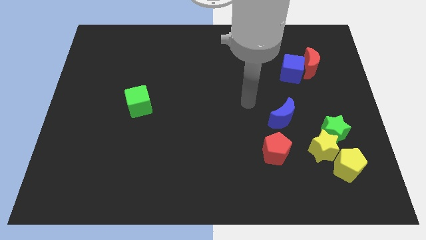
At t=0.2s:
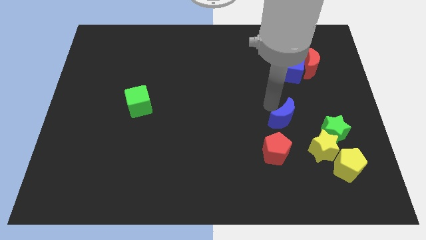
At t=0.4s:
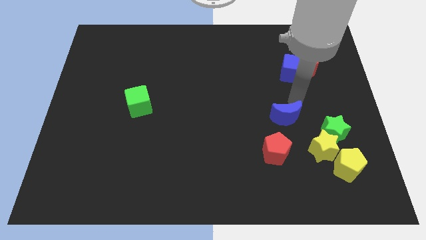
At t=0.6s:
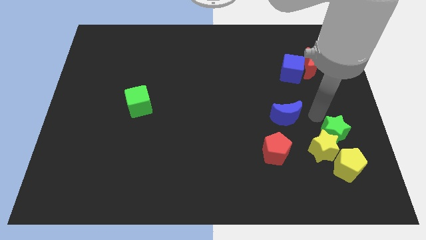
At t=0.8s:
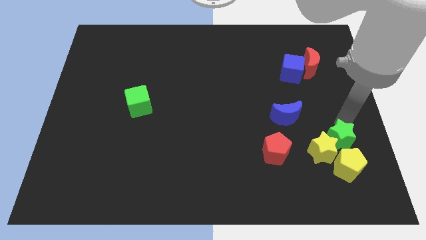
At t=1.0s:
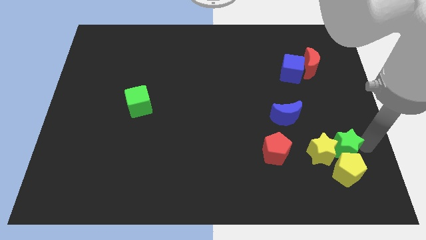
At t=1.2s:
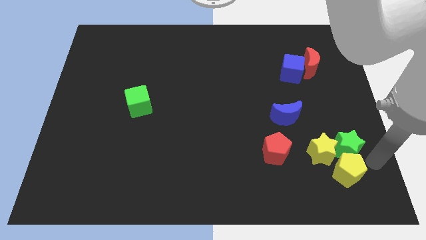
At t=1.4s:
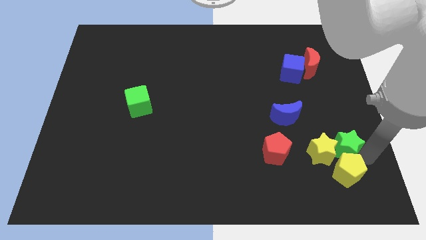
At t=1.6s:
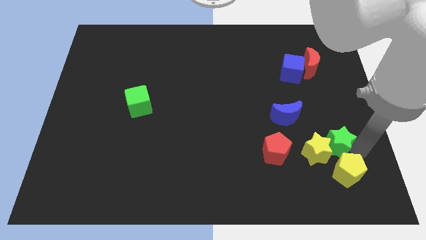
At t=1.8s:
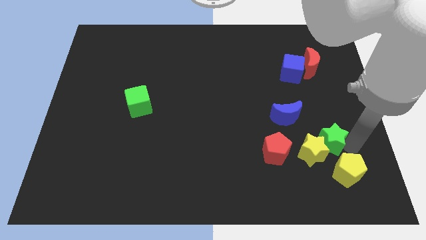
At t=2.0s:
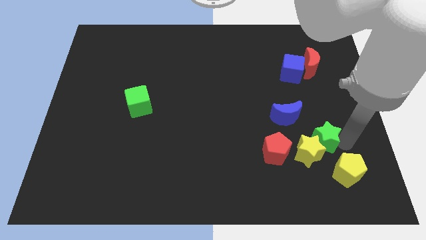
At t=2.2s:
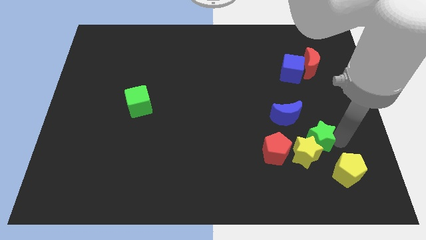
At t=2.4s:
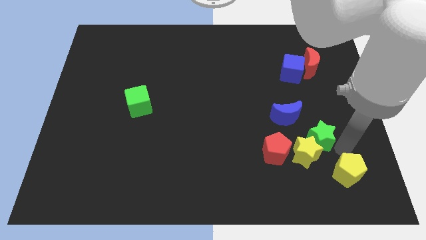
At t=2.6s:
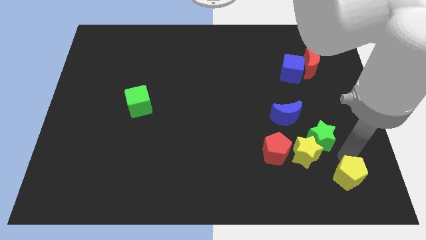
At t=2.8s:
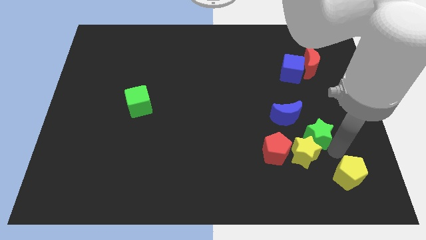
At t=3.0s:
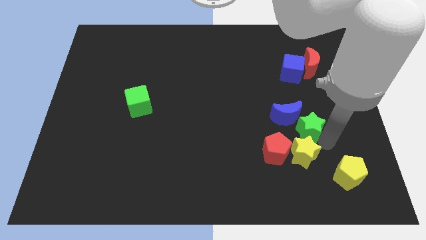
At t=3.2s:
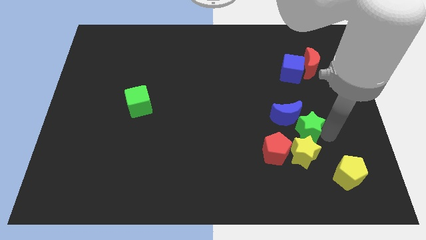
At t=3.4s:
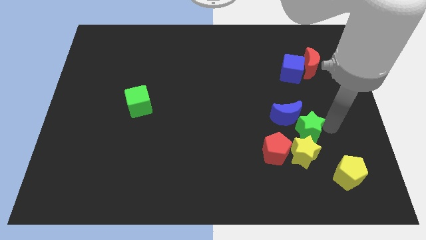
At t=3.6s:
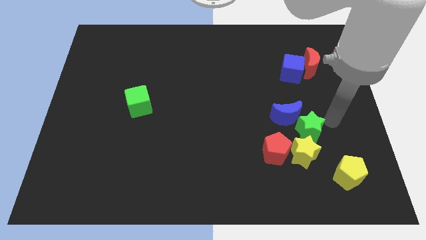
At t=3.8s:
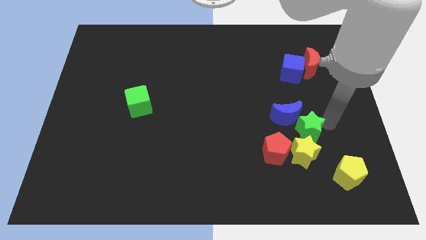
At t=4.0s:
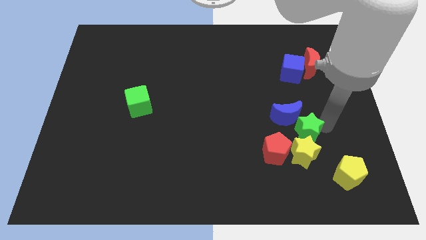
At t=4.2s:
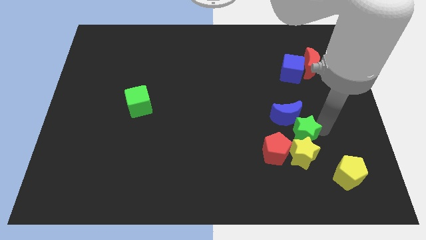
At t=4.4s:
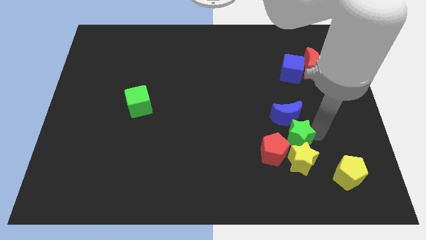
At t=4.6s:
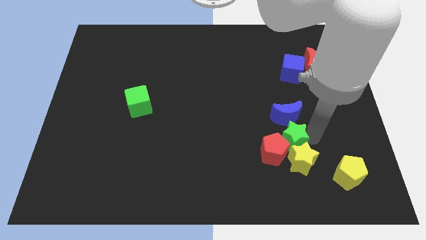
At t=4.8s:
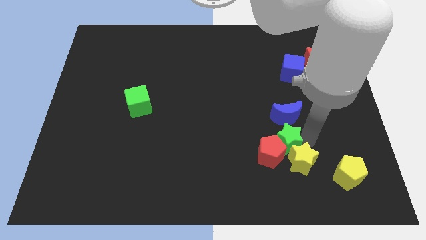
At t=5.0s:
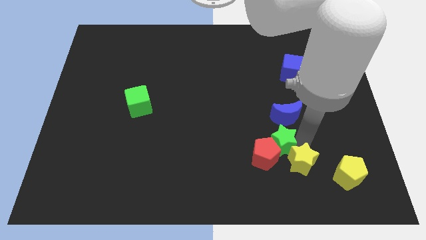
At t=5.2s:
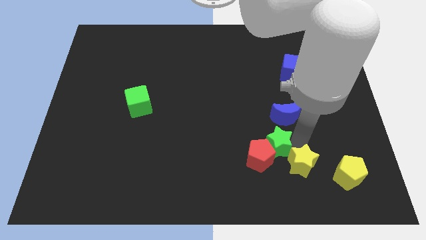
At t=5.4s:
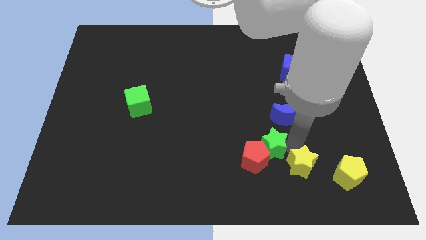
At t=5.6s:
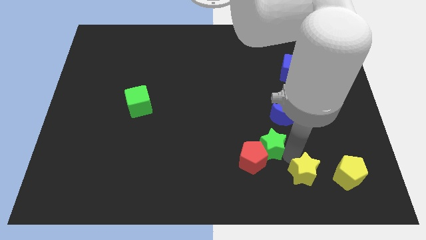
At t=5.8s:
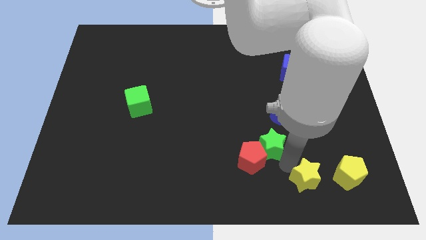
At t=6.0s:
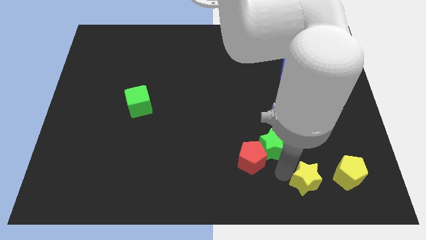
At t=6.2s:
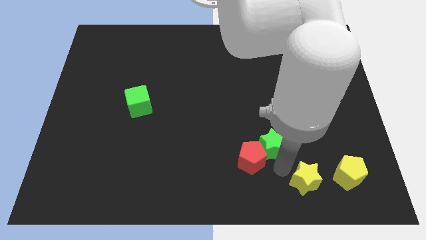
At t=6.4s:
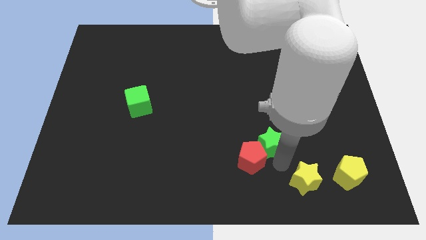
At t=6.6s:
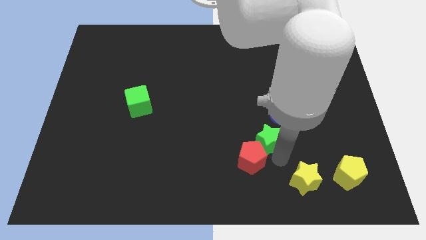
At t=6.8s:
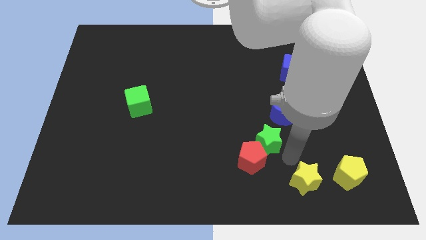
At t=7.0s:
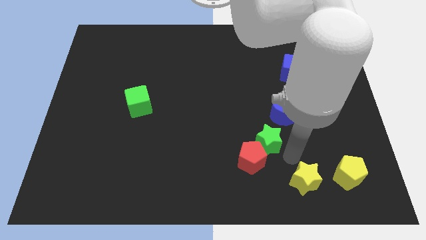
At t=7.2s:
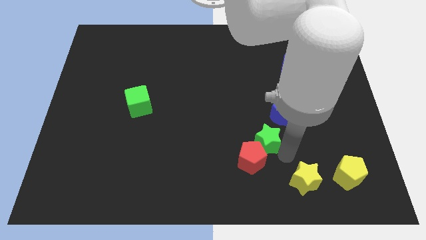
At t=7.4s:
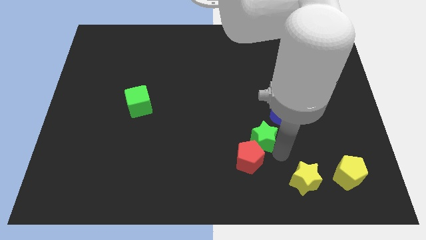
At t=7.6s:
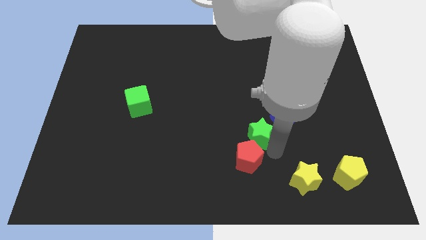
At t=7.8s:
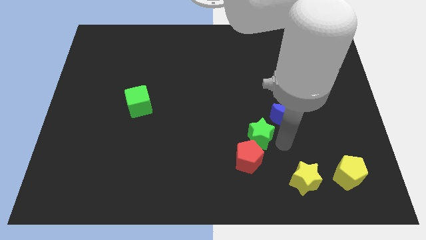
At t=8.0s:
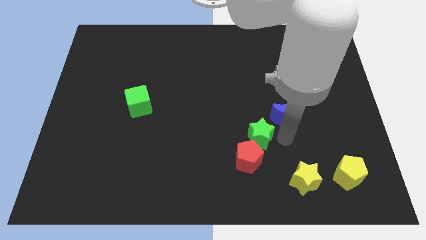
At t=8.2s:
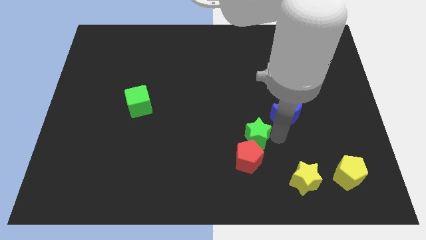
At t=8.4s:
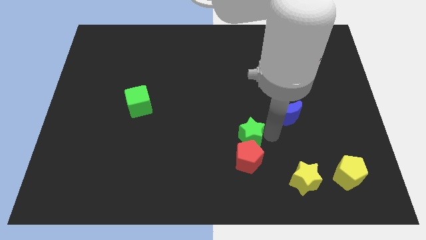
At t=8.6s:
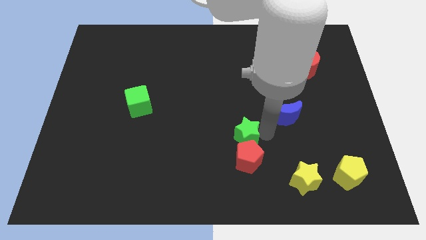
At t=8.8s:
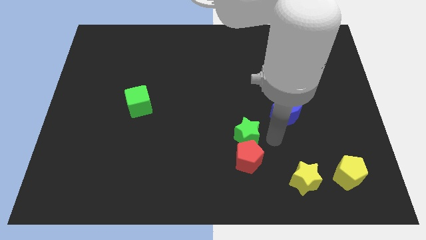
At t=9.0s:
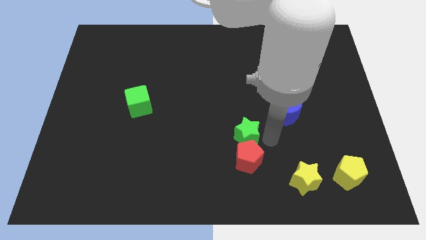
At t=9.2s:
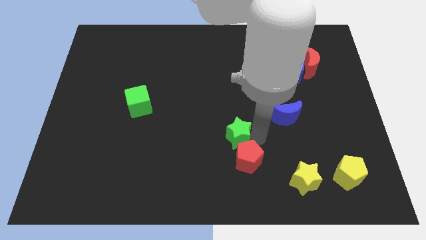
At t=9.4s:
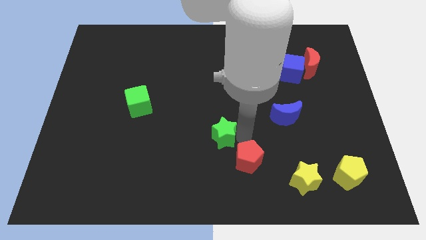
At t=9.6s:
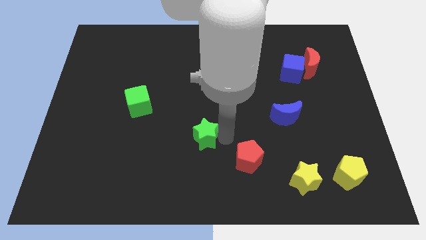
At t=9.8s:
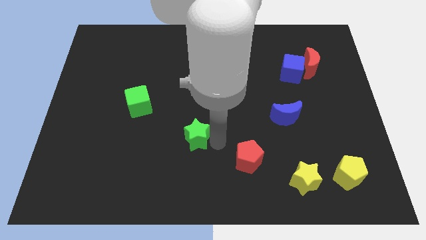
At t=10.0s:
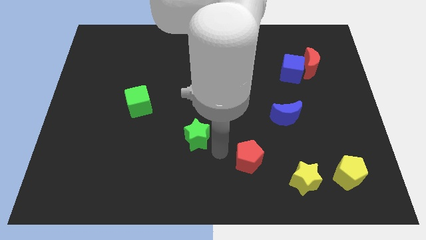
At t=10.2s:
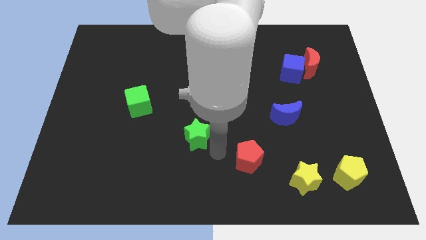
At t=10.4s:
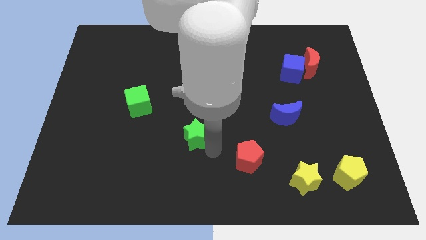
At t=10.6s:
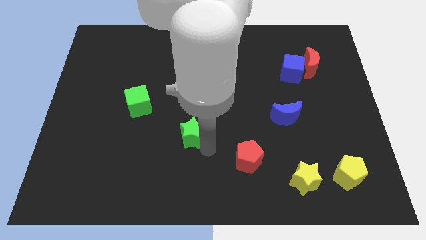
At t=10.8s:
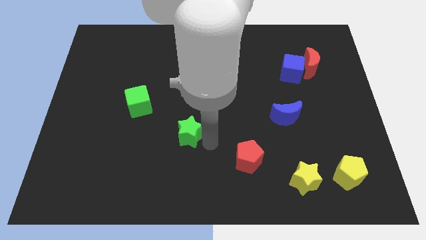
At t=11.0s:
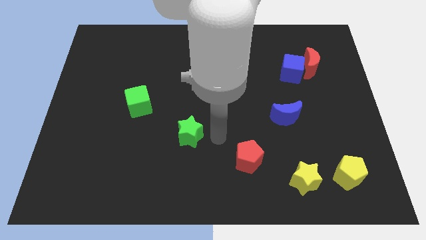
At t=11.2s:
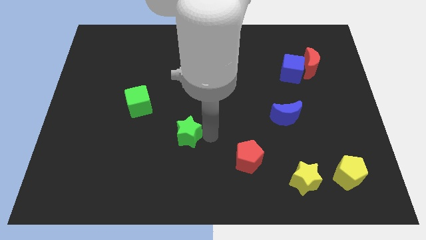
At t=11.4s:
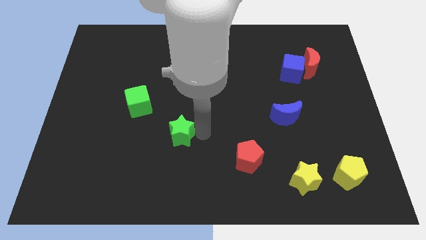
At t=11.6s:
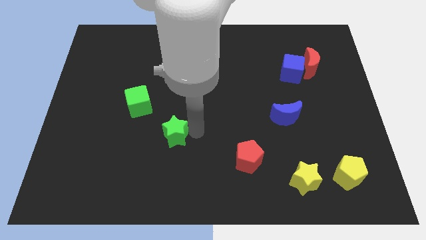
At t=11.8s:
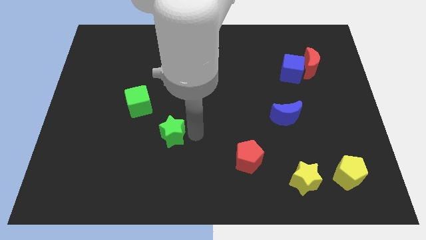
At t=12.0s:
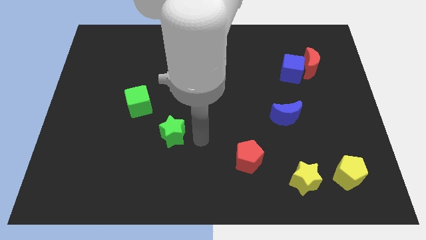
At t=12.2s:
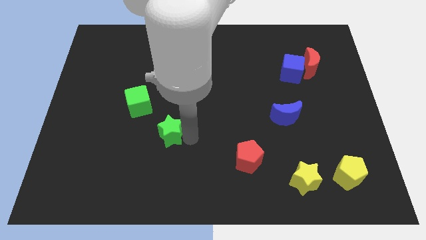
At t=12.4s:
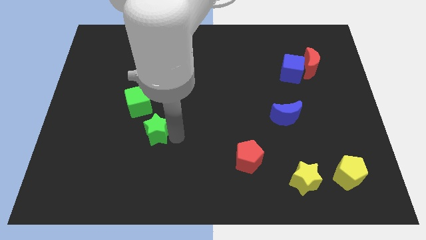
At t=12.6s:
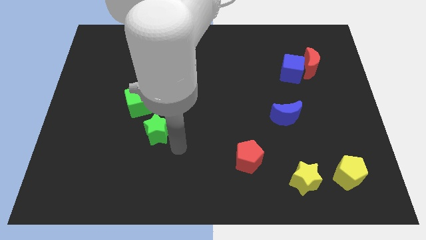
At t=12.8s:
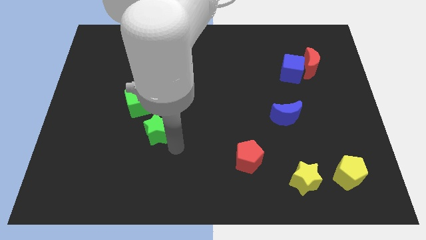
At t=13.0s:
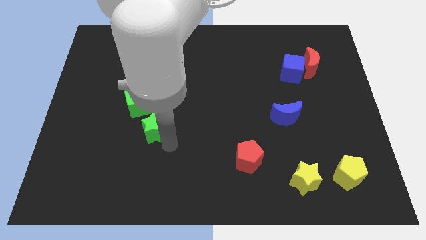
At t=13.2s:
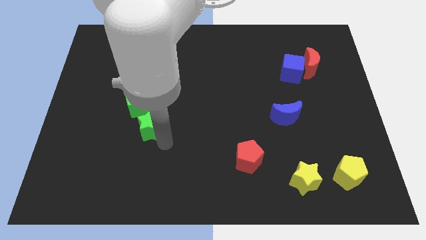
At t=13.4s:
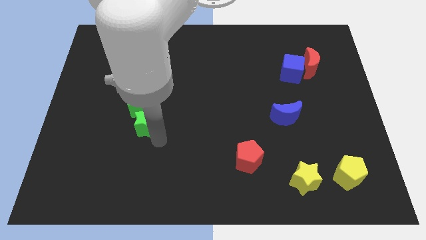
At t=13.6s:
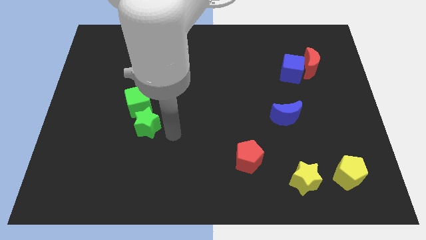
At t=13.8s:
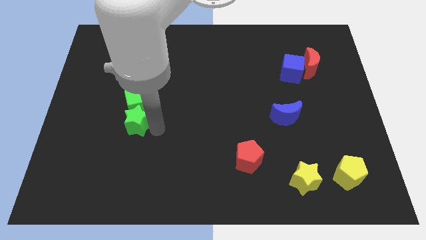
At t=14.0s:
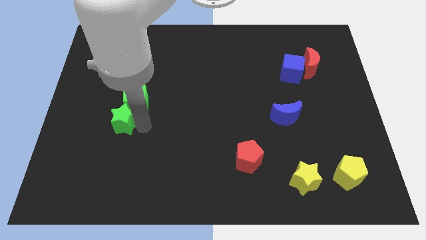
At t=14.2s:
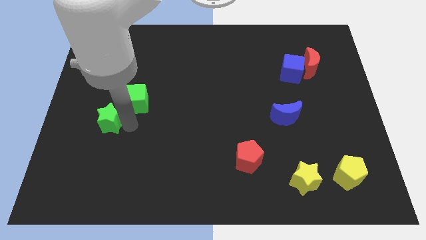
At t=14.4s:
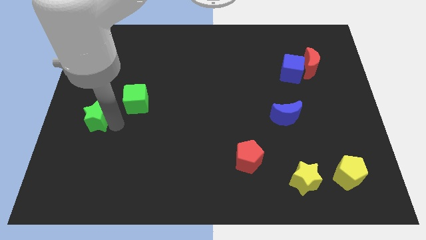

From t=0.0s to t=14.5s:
push the green star to the center left

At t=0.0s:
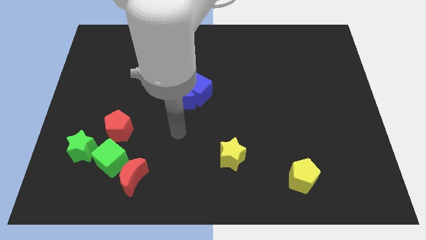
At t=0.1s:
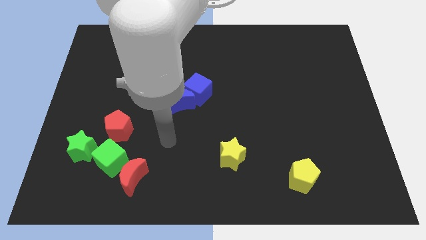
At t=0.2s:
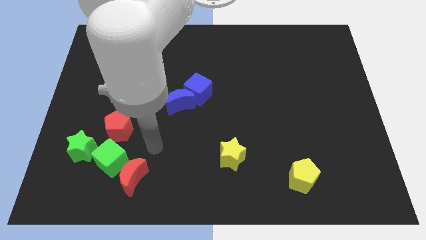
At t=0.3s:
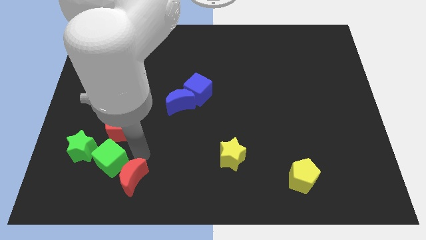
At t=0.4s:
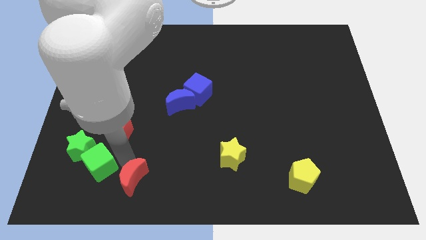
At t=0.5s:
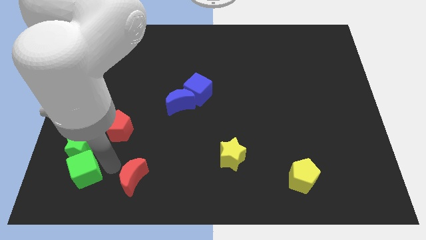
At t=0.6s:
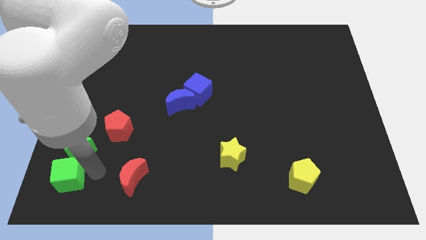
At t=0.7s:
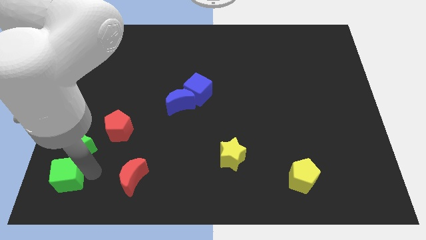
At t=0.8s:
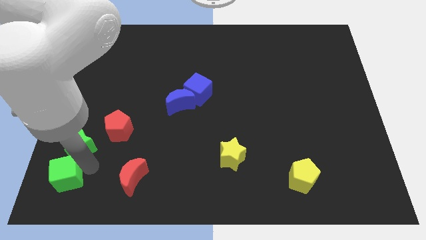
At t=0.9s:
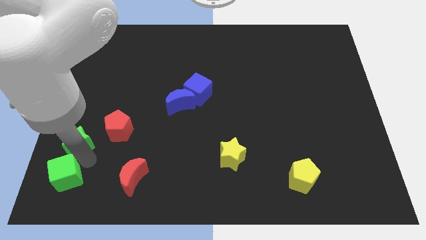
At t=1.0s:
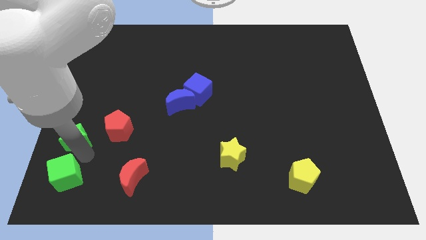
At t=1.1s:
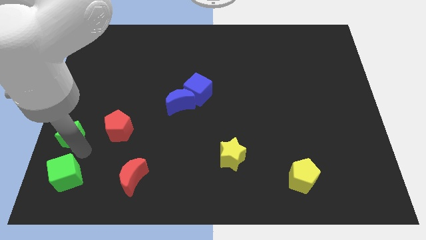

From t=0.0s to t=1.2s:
push the green star to the left side
